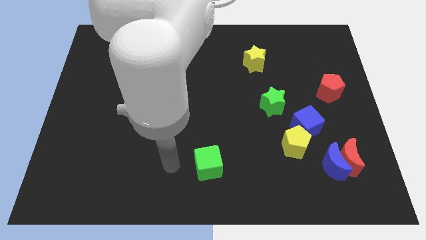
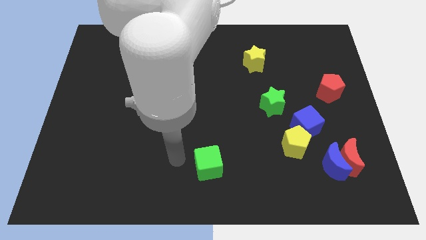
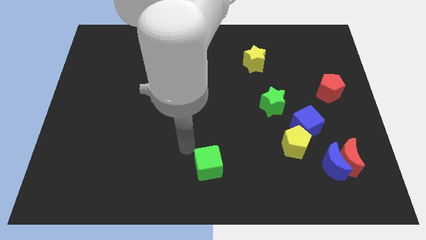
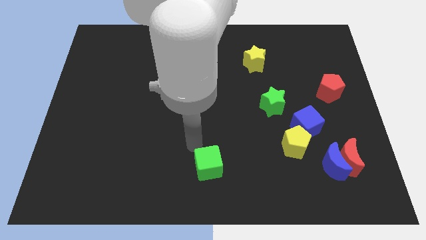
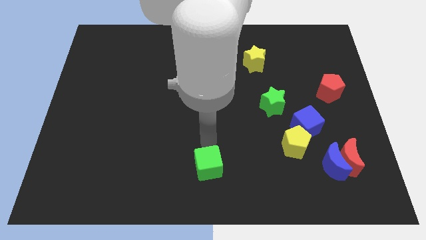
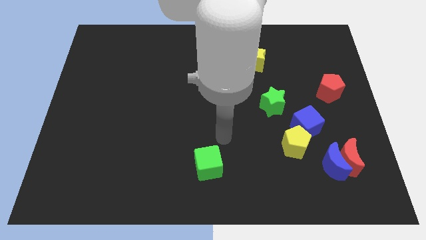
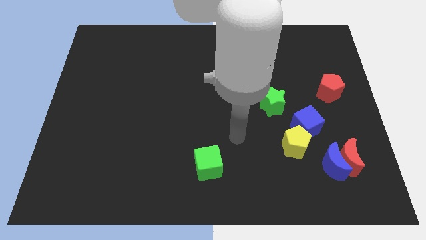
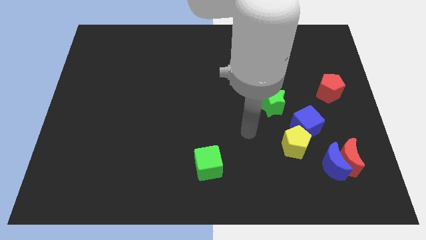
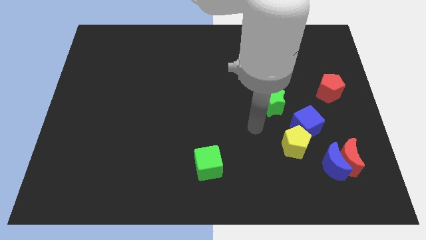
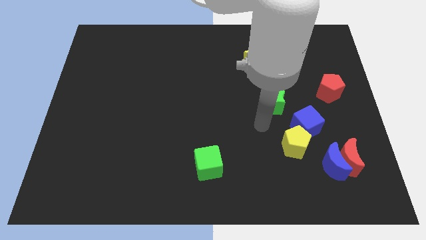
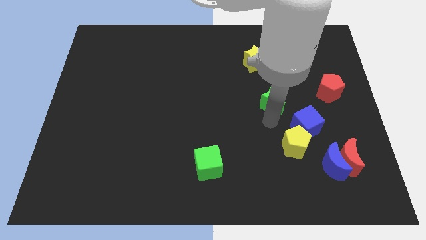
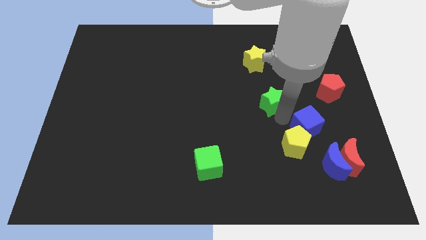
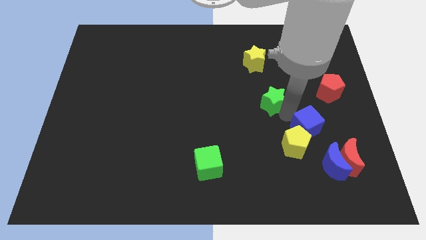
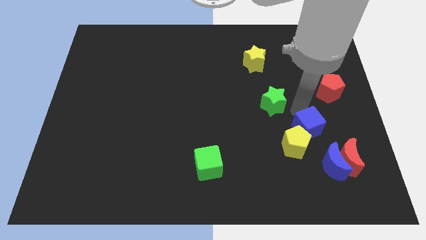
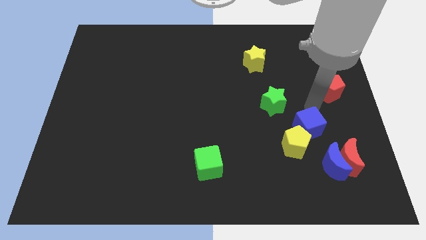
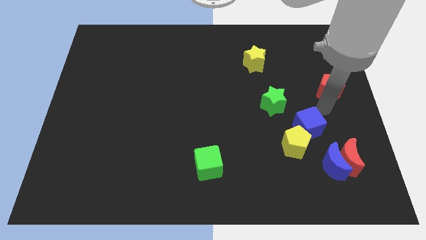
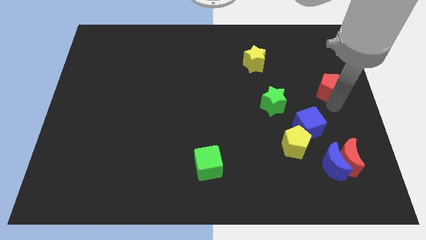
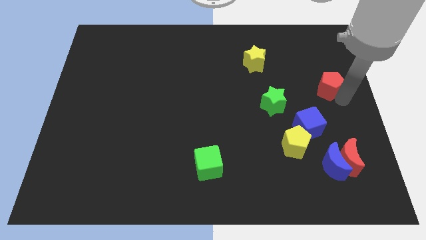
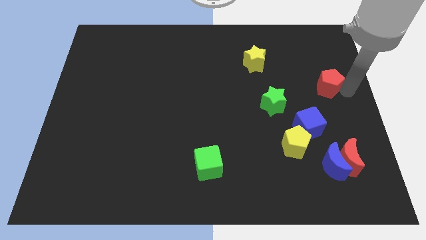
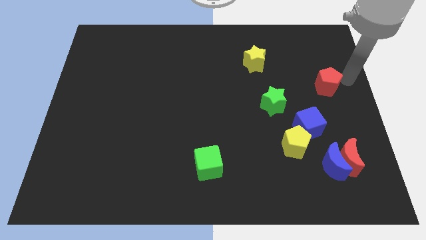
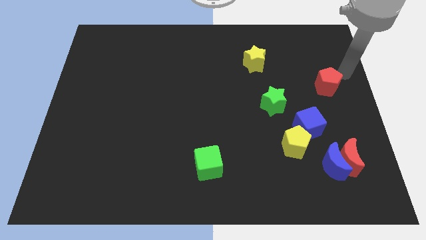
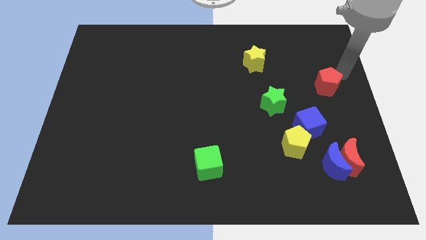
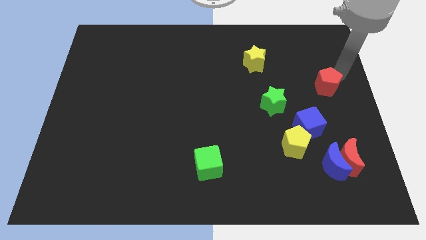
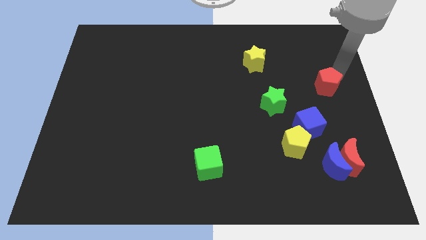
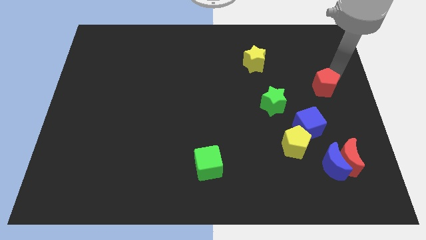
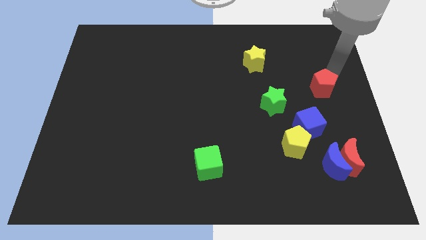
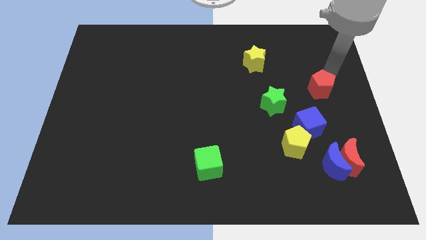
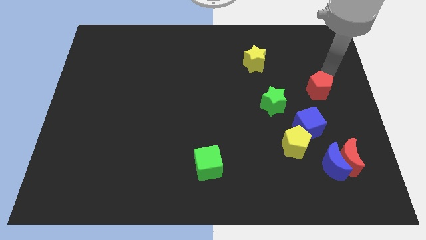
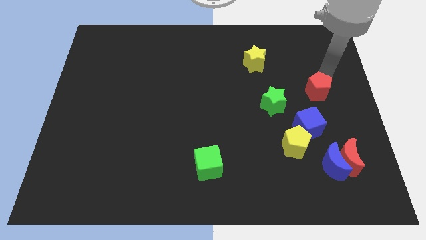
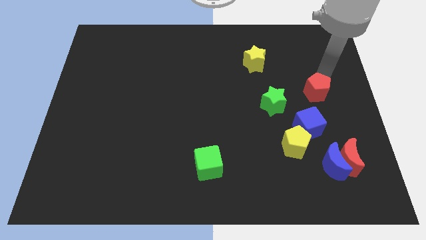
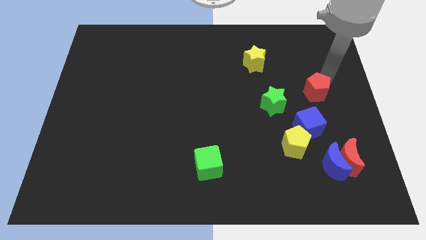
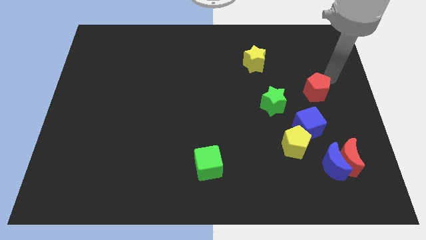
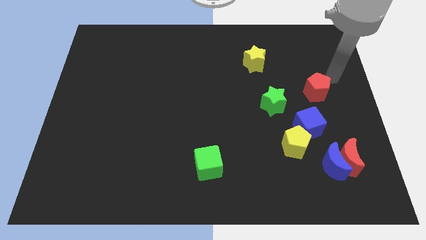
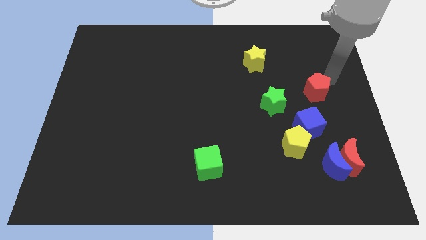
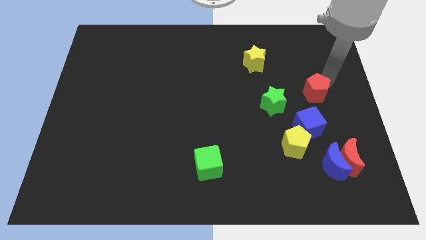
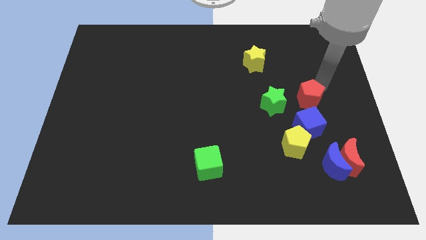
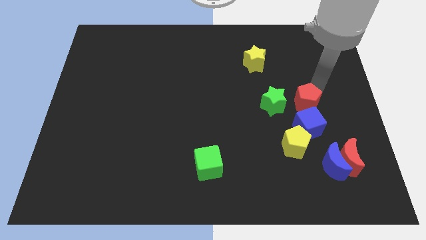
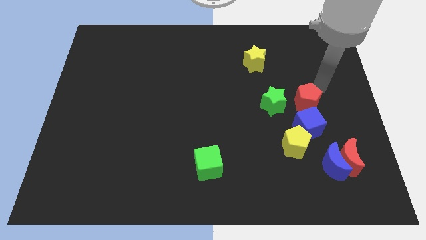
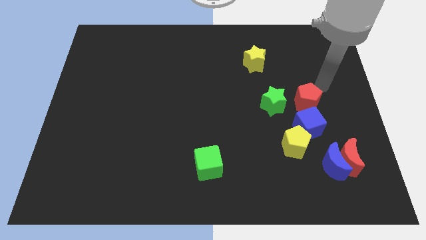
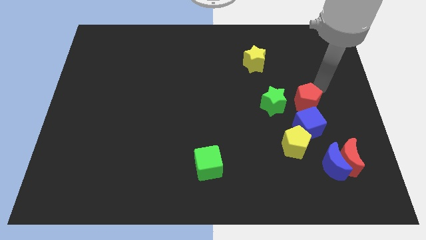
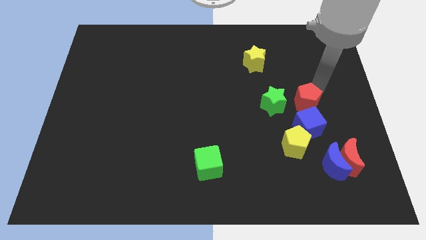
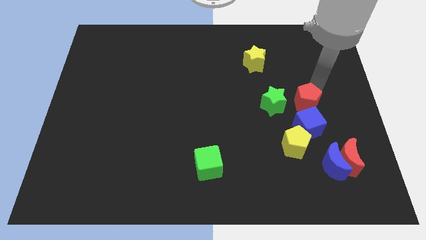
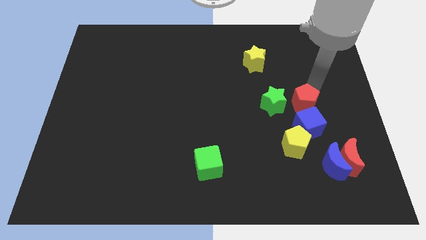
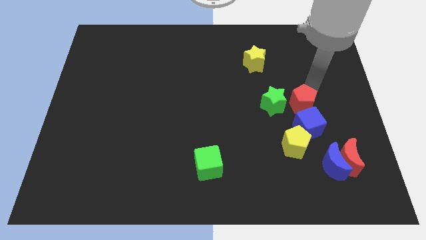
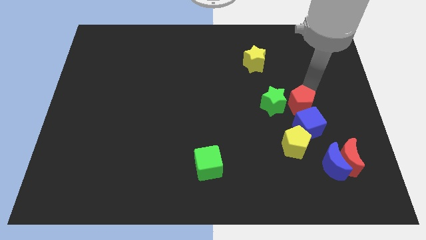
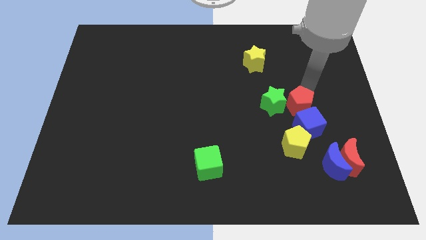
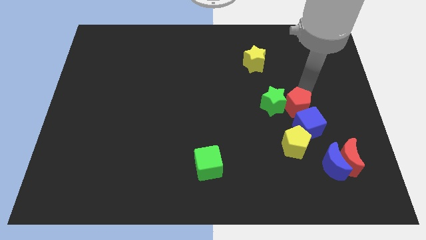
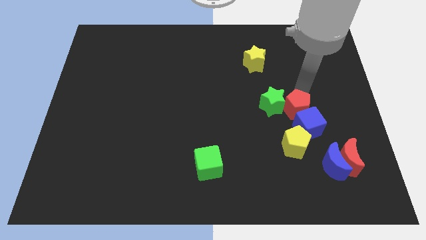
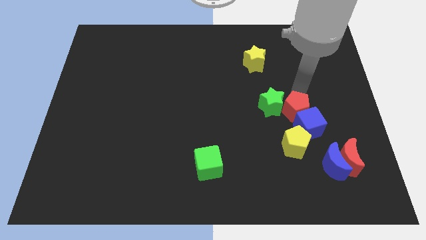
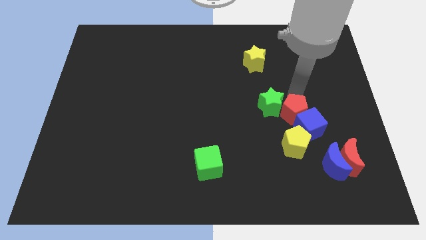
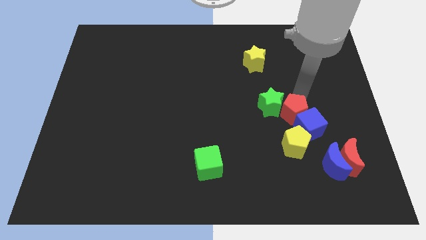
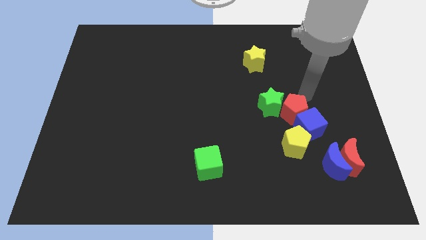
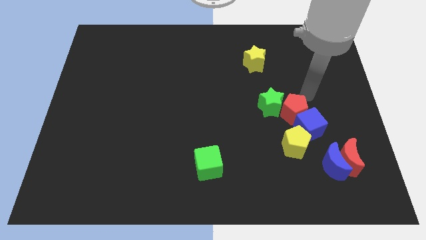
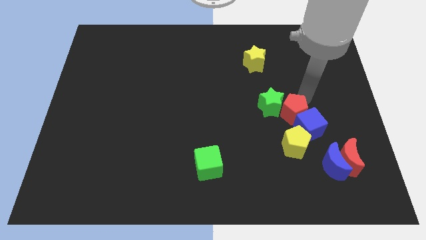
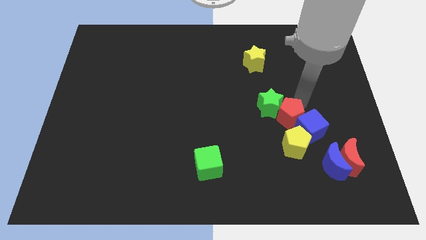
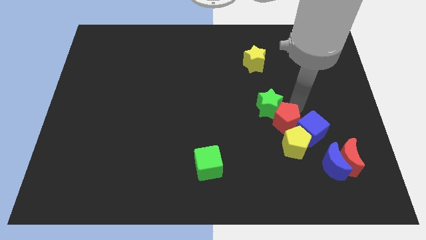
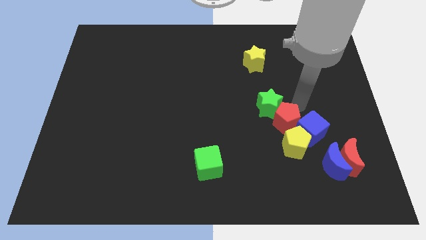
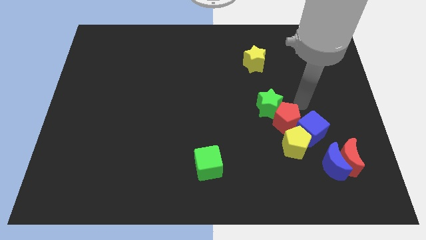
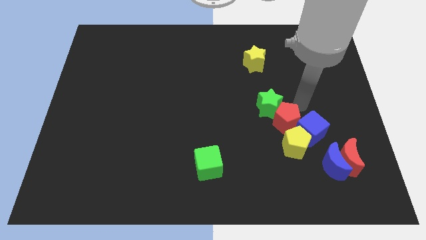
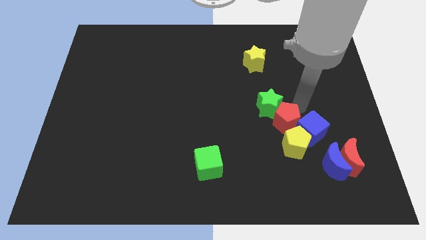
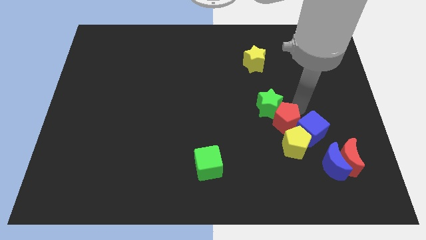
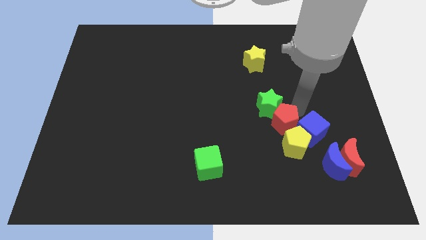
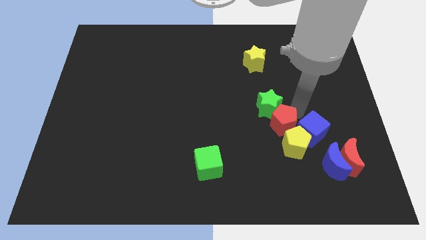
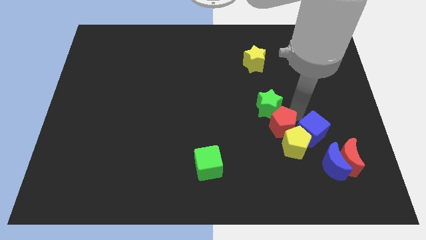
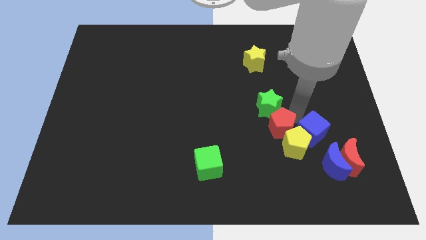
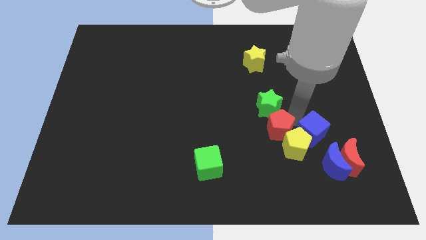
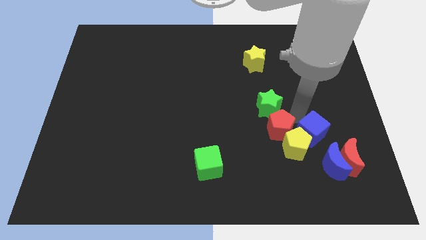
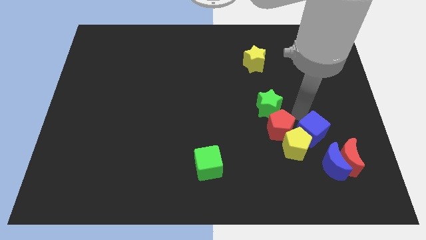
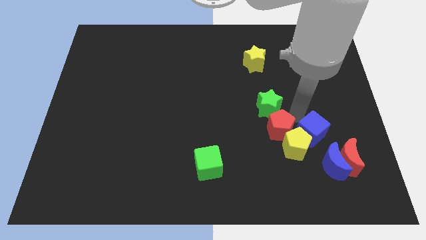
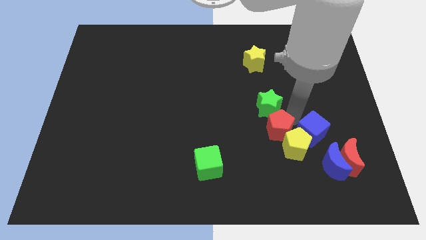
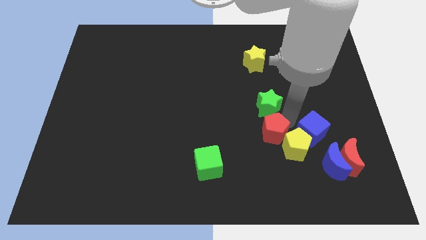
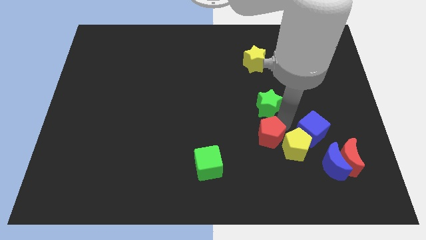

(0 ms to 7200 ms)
slide the red pentagon down and to the left

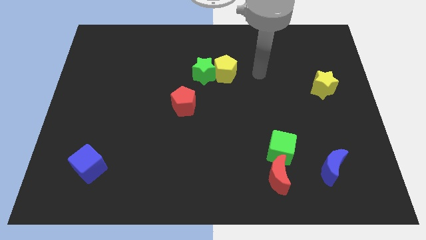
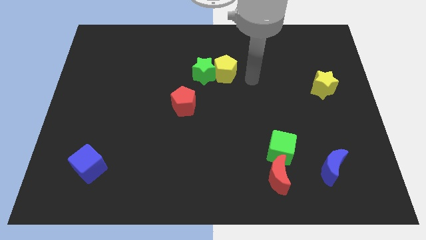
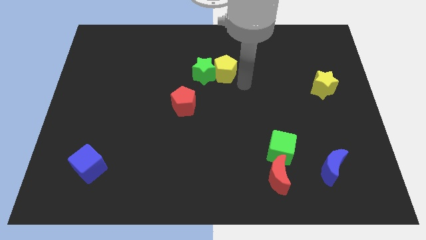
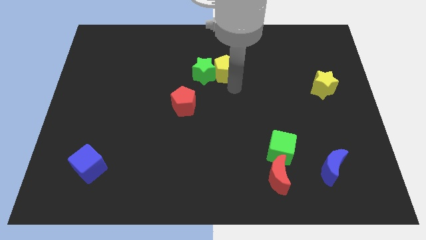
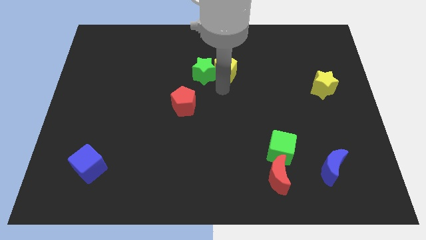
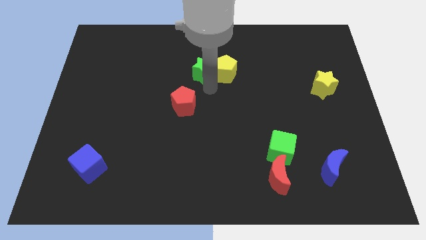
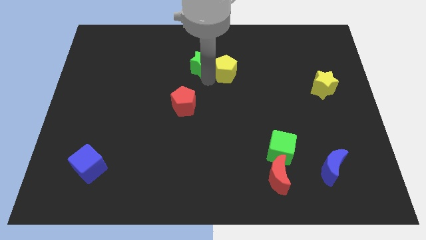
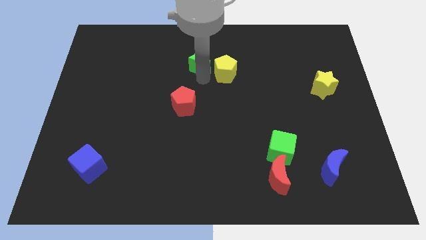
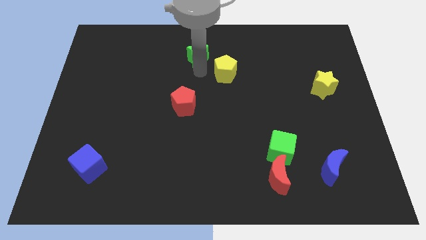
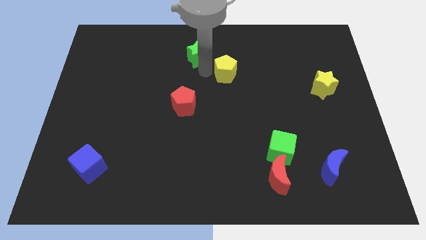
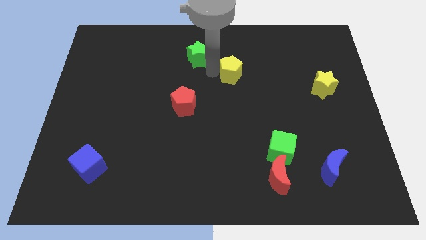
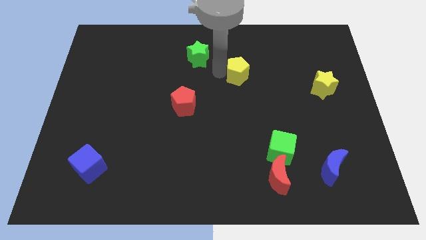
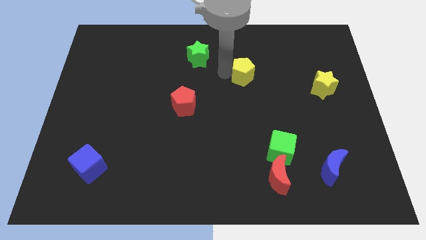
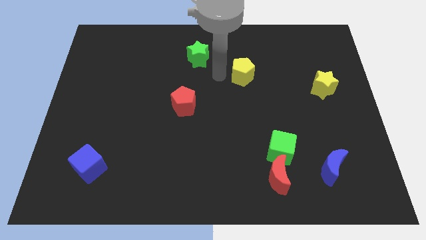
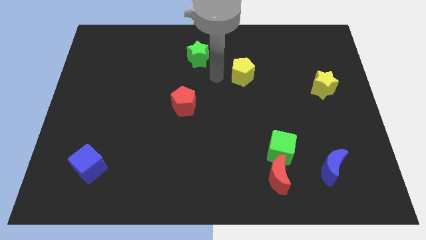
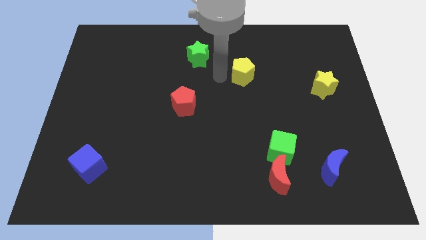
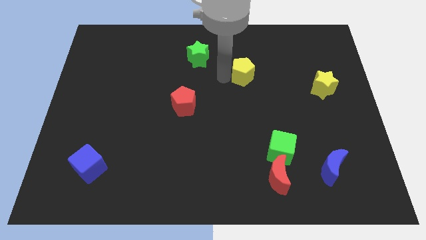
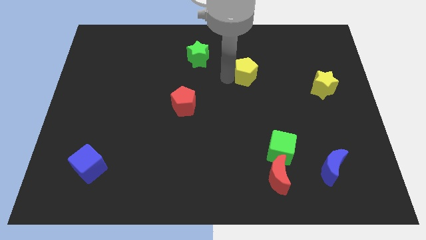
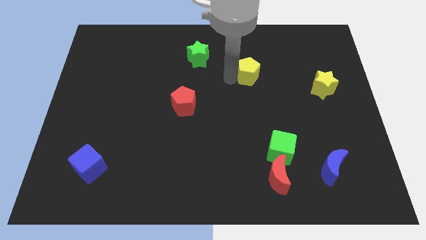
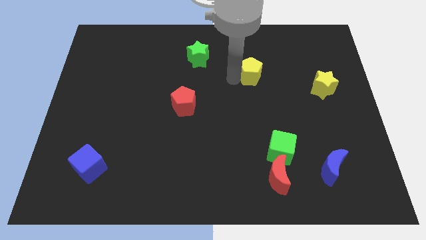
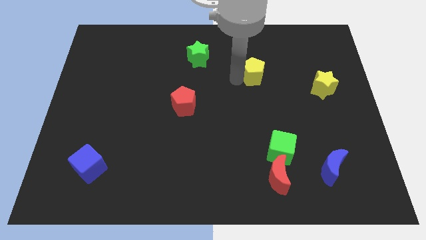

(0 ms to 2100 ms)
slightly slide the yellow pentagon to the right
